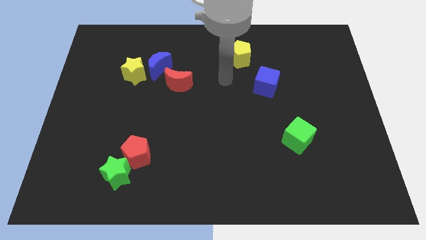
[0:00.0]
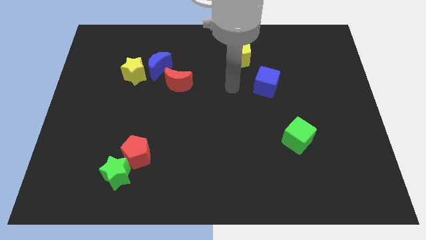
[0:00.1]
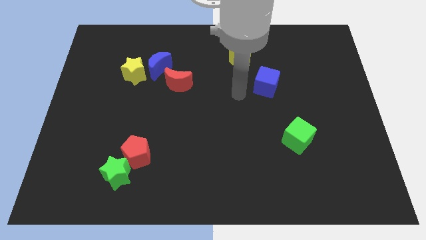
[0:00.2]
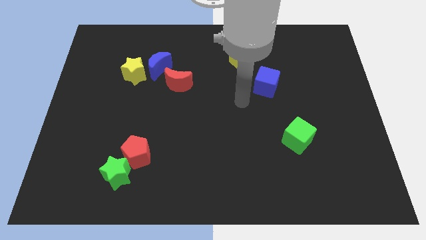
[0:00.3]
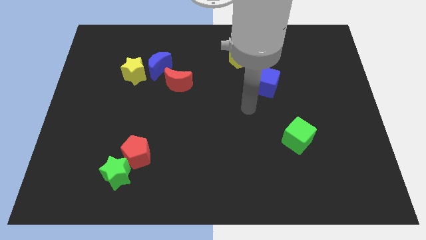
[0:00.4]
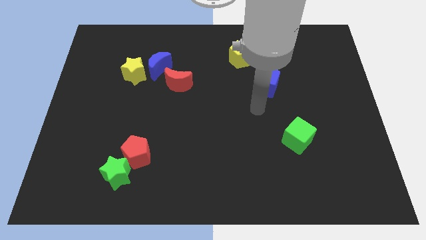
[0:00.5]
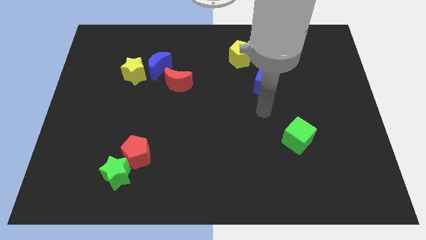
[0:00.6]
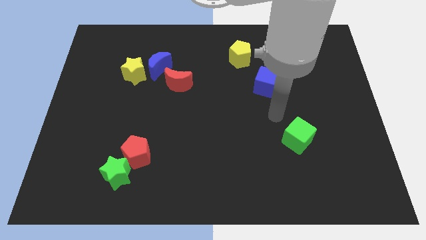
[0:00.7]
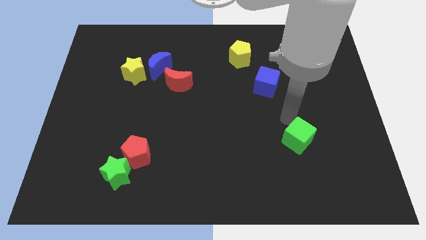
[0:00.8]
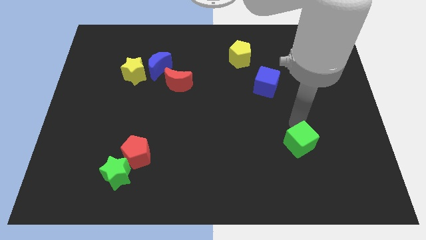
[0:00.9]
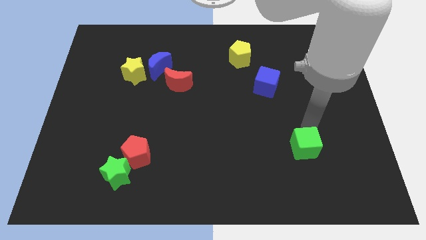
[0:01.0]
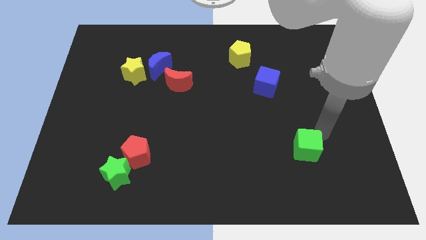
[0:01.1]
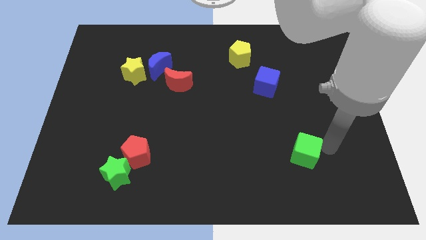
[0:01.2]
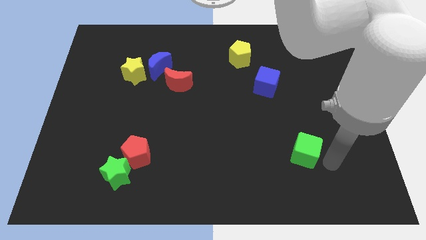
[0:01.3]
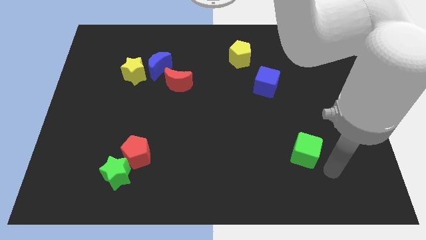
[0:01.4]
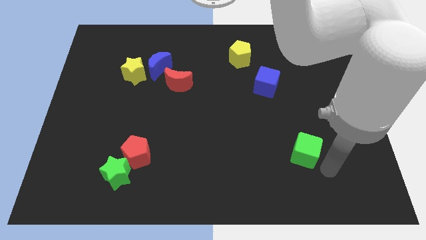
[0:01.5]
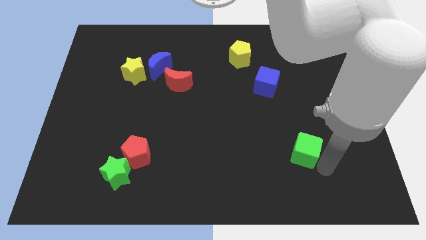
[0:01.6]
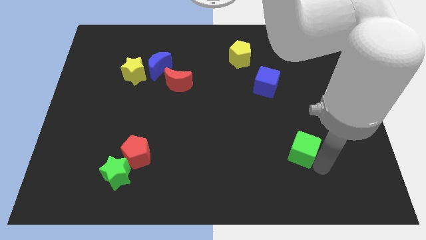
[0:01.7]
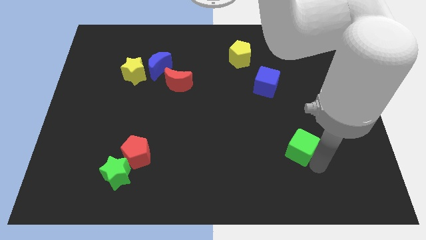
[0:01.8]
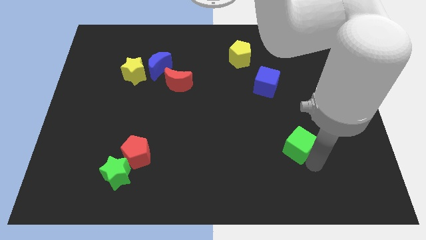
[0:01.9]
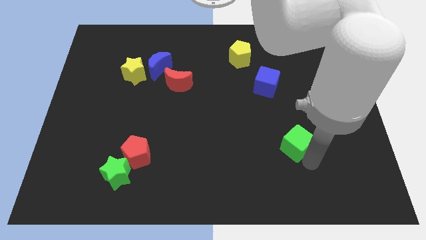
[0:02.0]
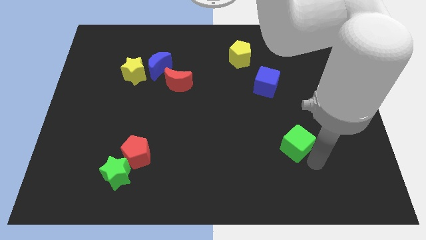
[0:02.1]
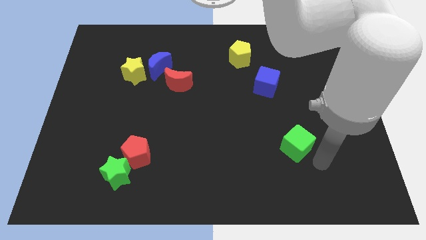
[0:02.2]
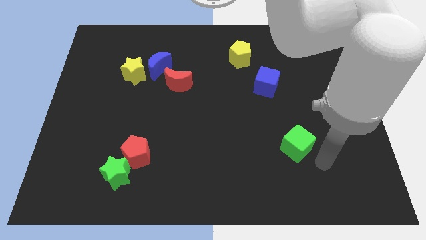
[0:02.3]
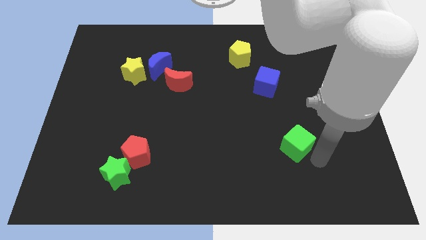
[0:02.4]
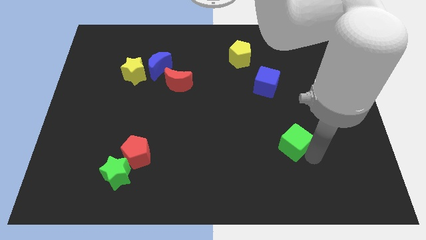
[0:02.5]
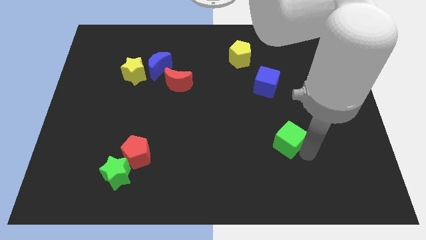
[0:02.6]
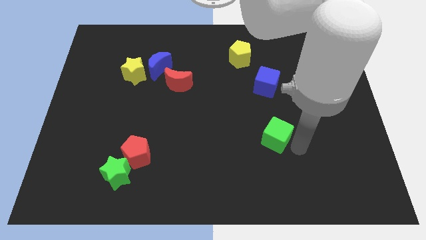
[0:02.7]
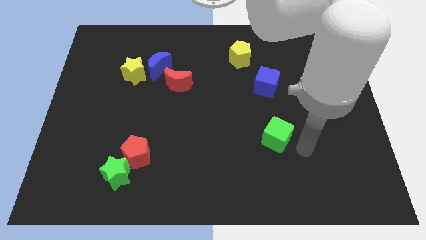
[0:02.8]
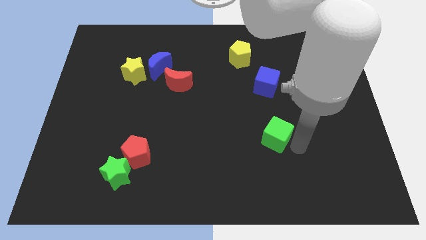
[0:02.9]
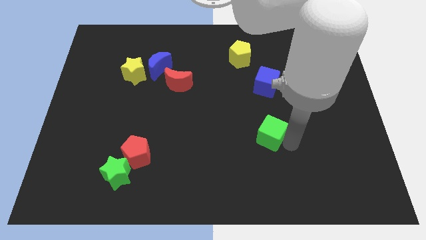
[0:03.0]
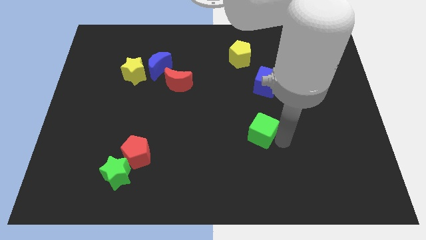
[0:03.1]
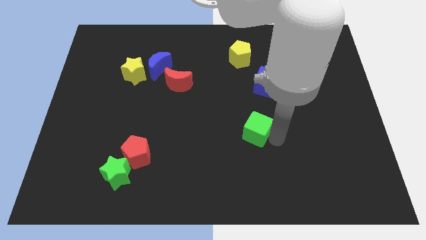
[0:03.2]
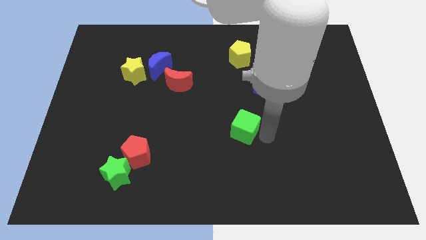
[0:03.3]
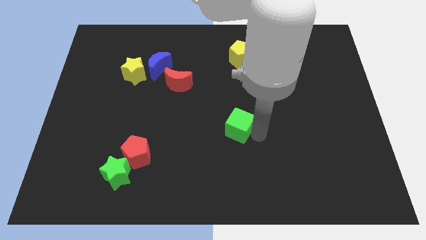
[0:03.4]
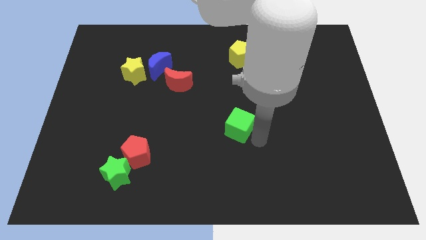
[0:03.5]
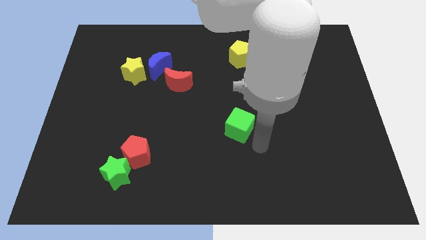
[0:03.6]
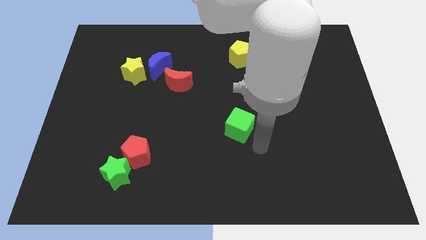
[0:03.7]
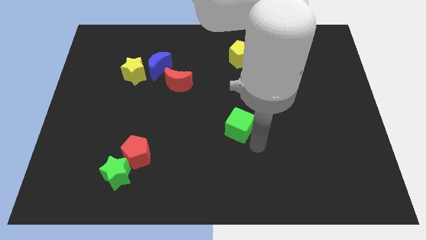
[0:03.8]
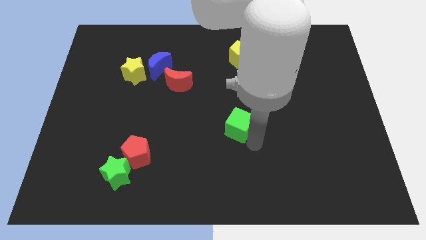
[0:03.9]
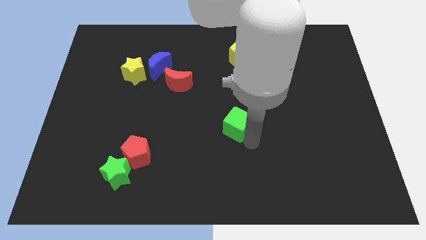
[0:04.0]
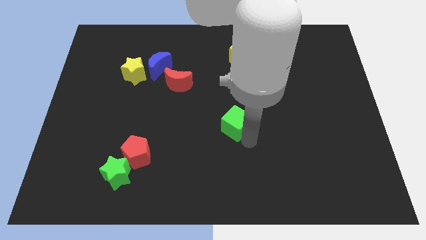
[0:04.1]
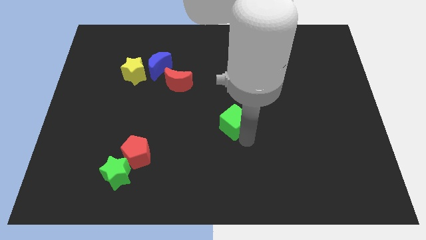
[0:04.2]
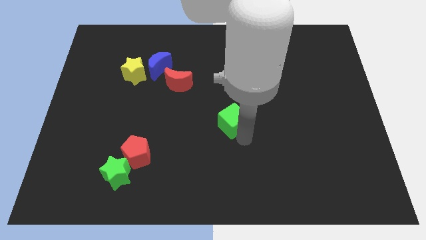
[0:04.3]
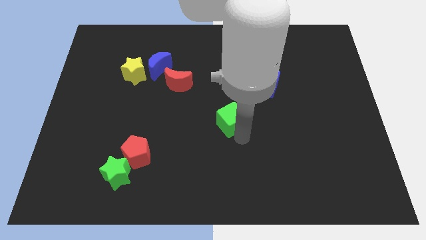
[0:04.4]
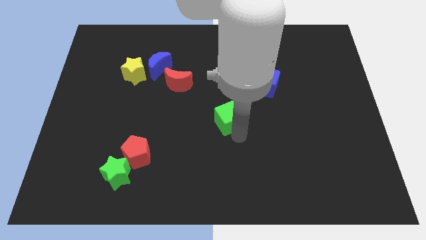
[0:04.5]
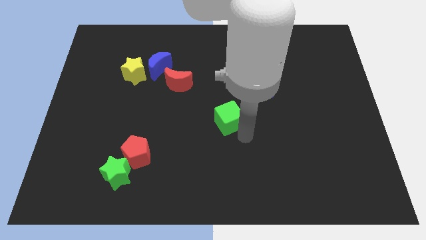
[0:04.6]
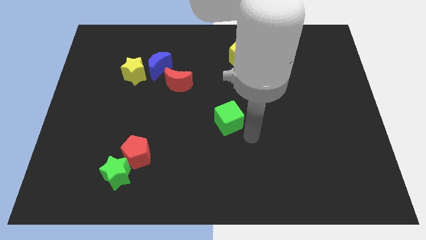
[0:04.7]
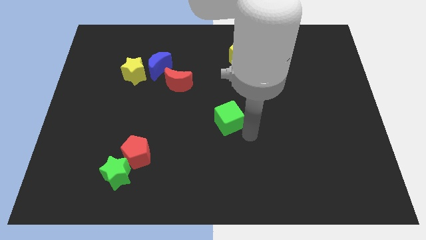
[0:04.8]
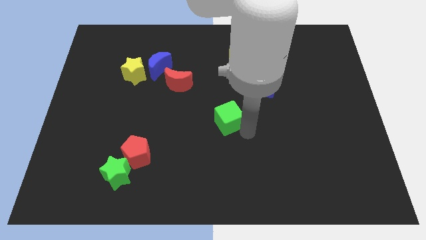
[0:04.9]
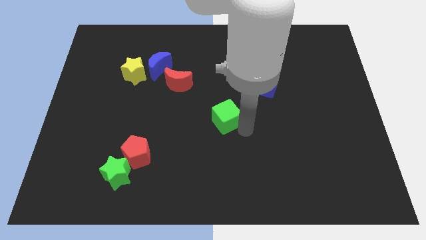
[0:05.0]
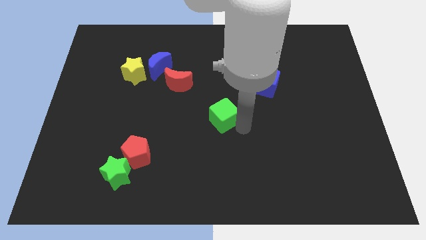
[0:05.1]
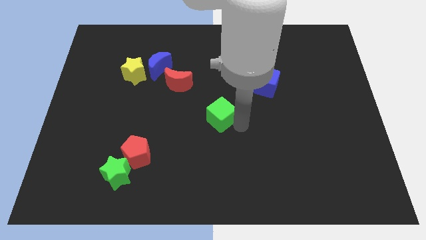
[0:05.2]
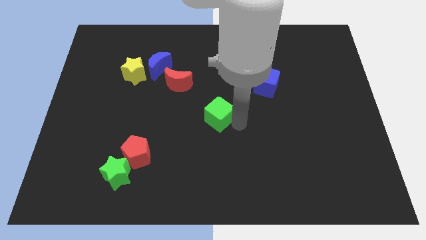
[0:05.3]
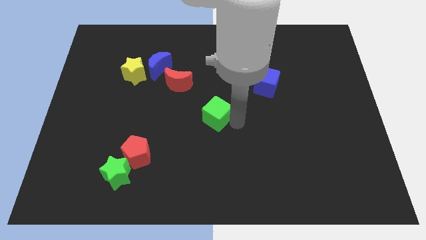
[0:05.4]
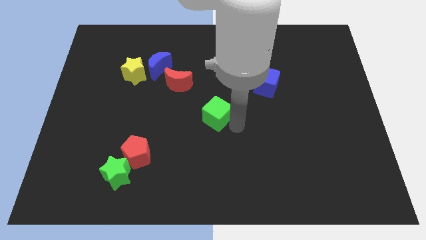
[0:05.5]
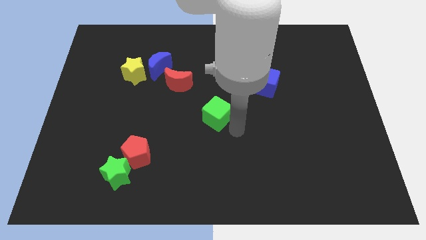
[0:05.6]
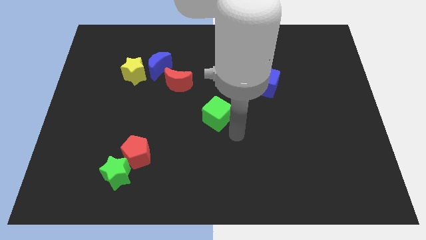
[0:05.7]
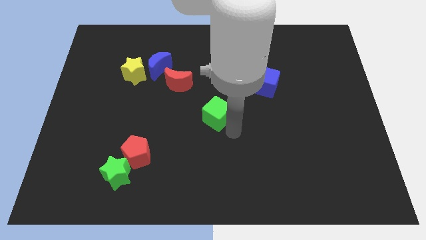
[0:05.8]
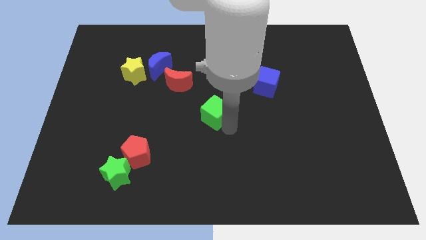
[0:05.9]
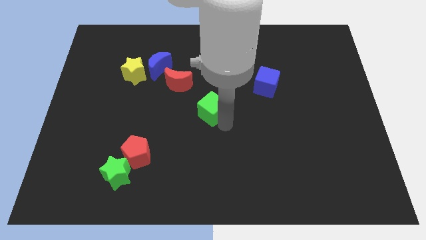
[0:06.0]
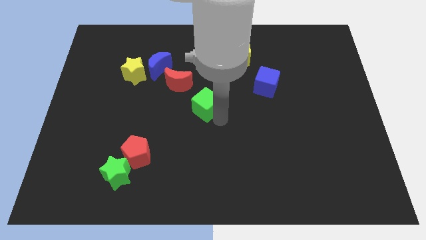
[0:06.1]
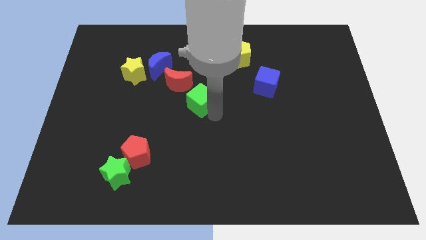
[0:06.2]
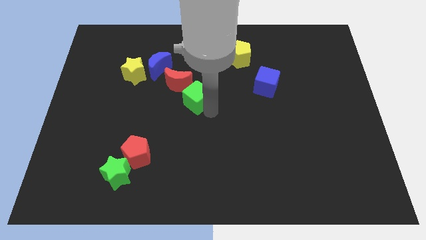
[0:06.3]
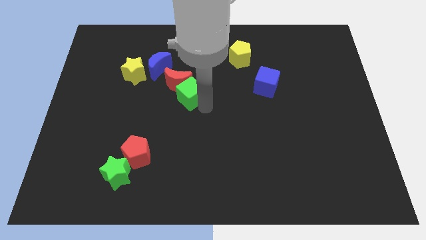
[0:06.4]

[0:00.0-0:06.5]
move the green cube to the red moon
